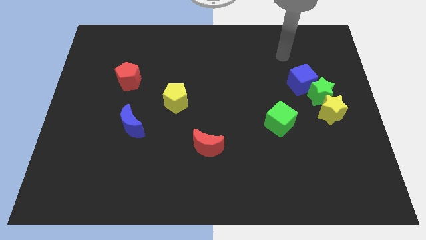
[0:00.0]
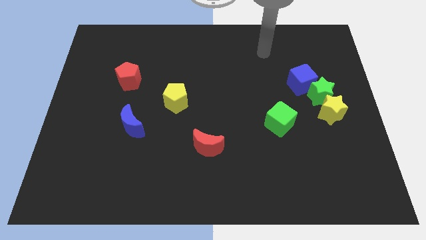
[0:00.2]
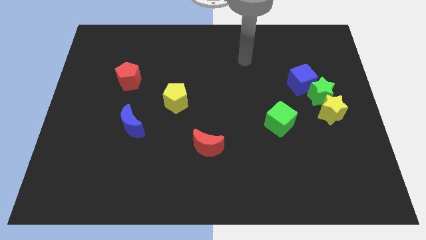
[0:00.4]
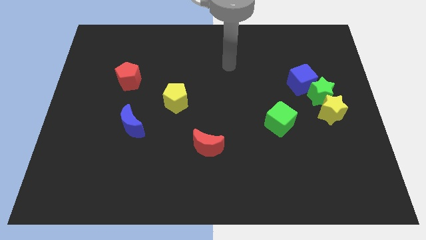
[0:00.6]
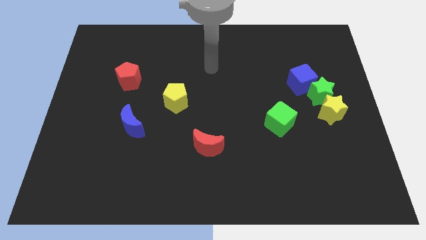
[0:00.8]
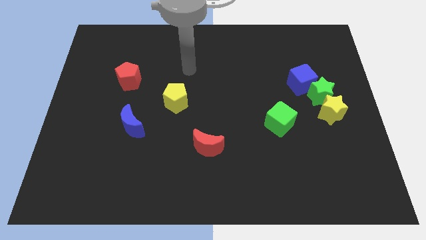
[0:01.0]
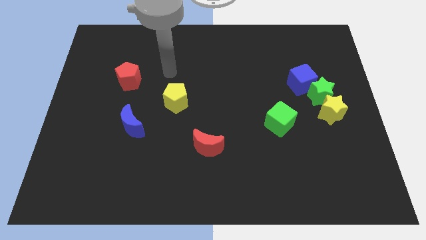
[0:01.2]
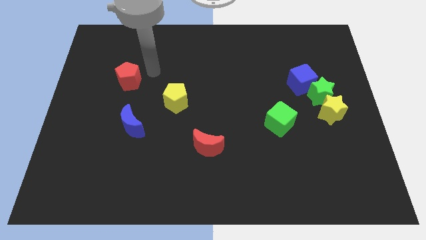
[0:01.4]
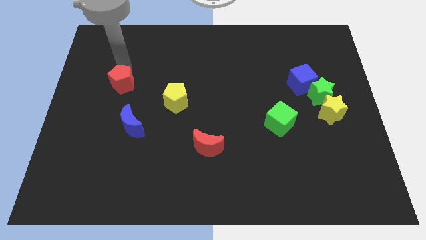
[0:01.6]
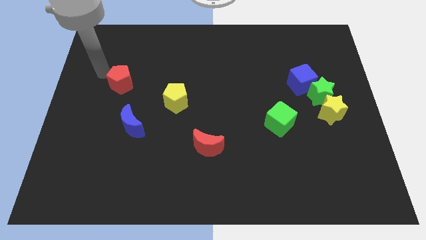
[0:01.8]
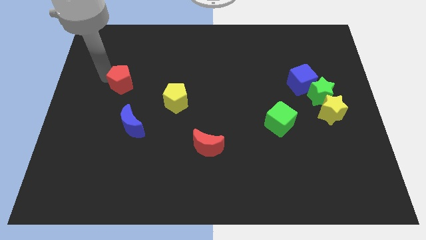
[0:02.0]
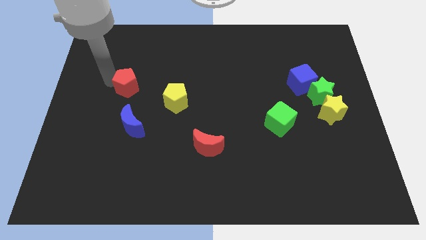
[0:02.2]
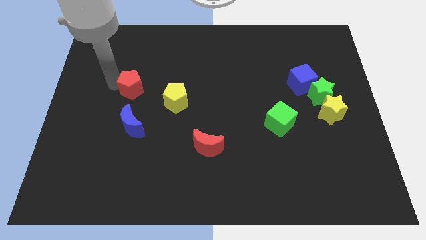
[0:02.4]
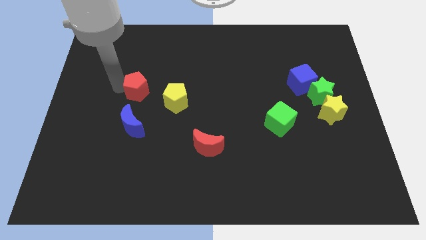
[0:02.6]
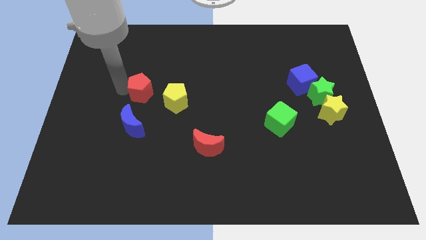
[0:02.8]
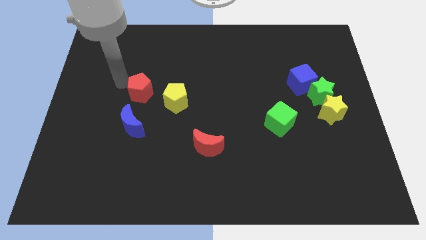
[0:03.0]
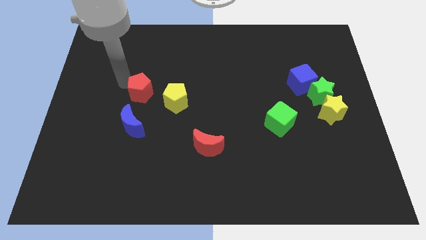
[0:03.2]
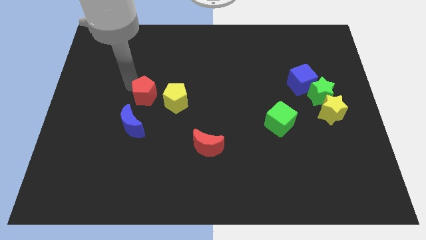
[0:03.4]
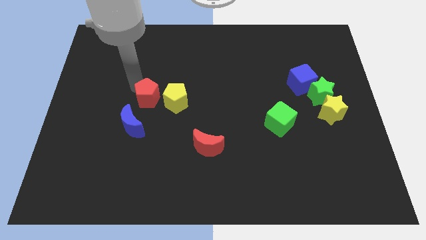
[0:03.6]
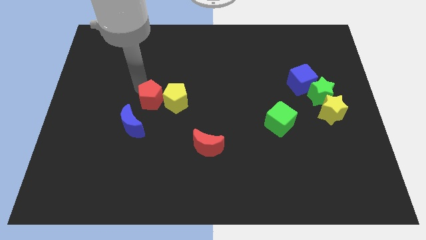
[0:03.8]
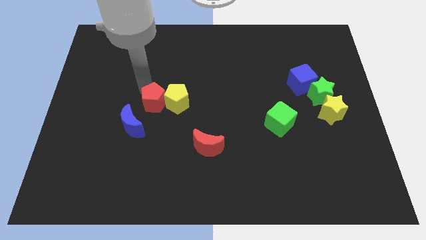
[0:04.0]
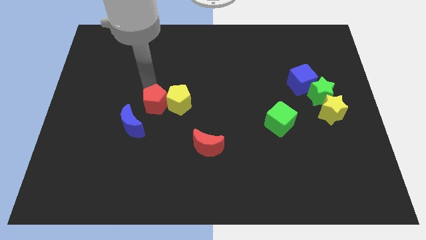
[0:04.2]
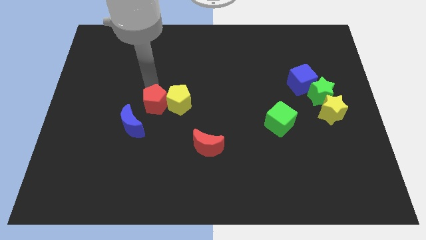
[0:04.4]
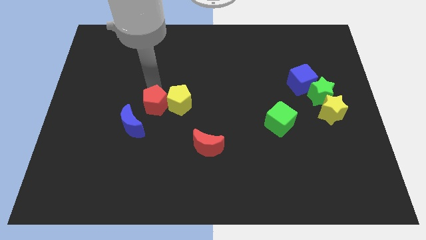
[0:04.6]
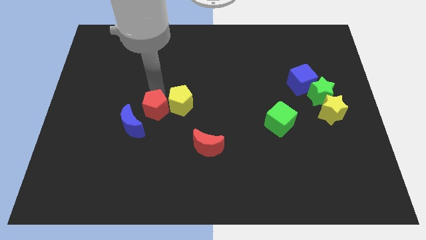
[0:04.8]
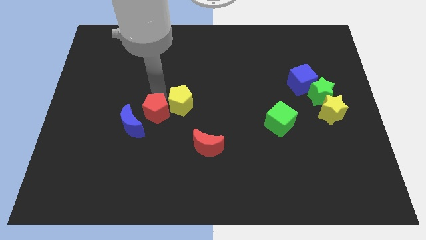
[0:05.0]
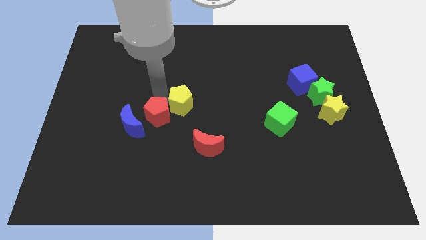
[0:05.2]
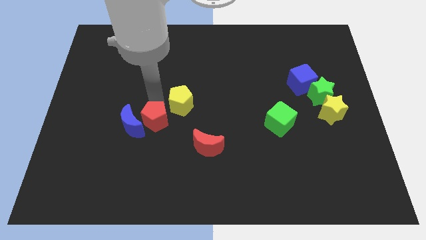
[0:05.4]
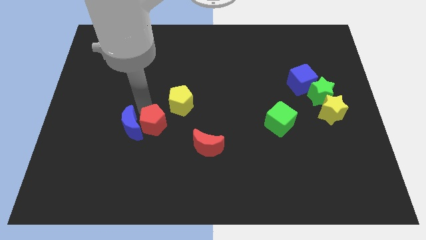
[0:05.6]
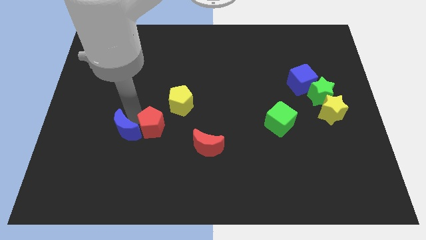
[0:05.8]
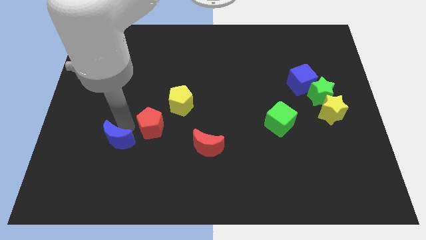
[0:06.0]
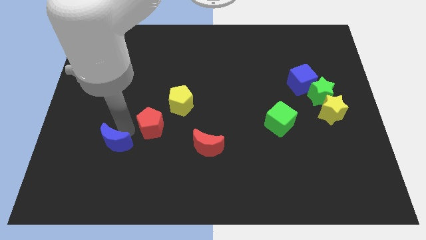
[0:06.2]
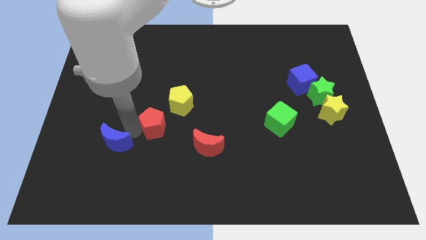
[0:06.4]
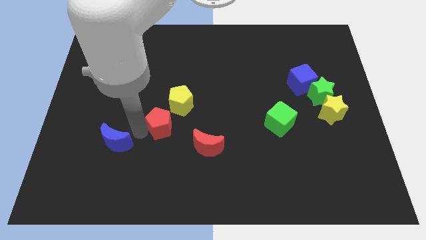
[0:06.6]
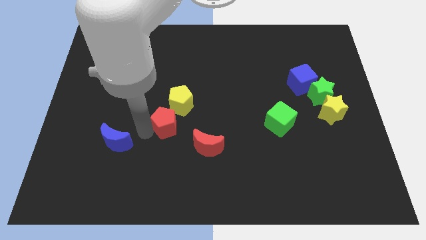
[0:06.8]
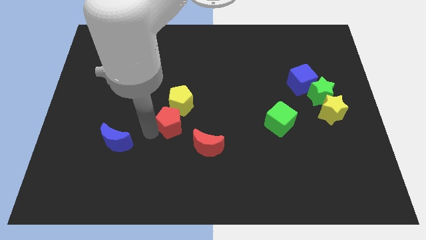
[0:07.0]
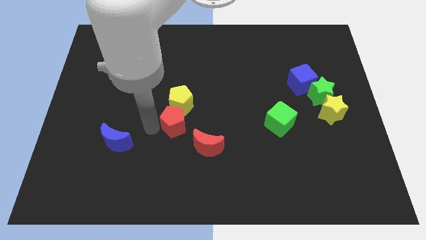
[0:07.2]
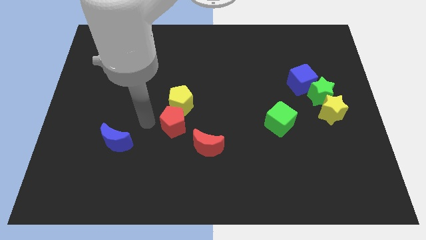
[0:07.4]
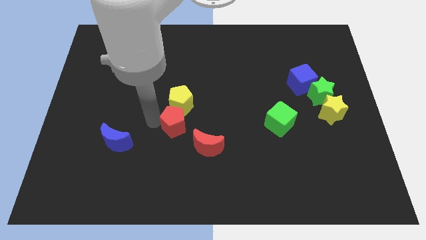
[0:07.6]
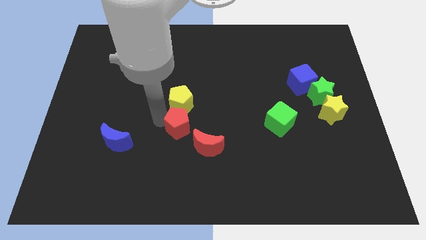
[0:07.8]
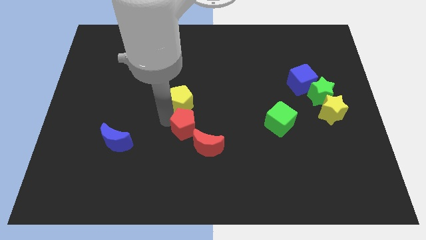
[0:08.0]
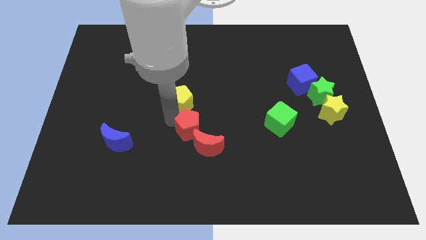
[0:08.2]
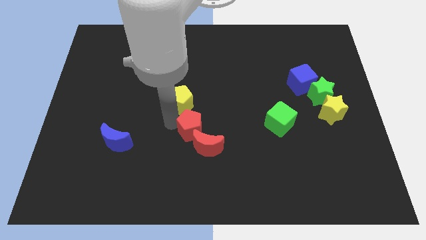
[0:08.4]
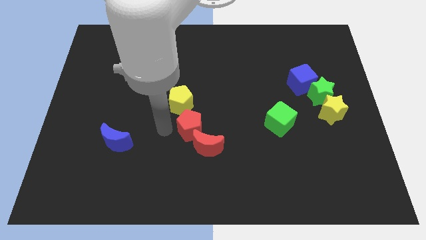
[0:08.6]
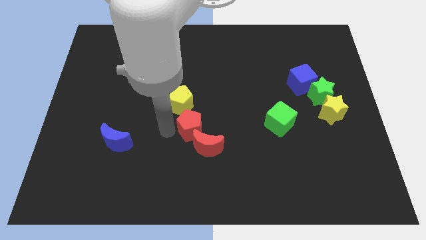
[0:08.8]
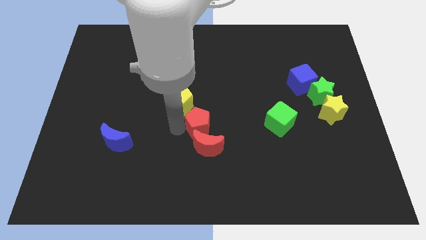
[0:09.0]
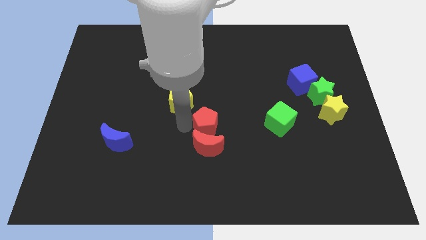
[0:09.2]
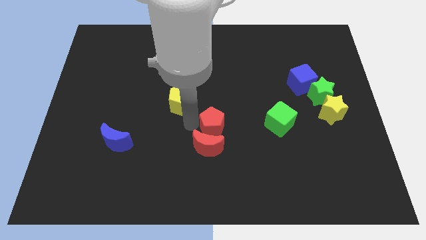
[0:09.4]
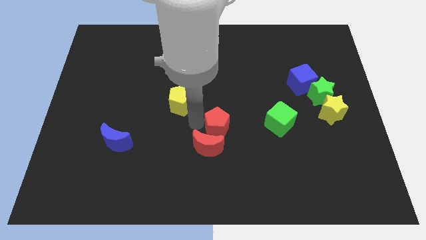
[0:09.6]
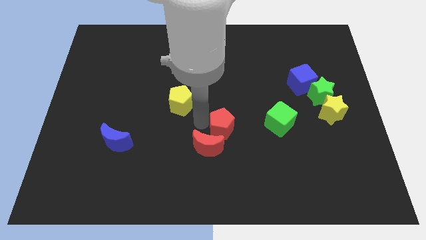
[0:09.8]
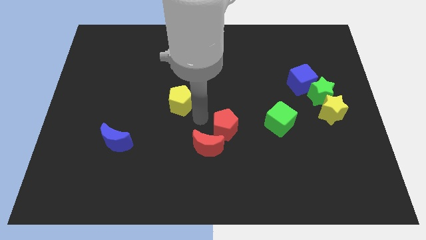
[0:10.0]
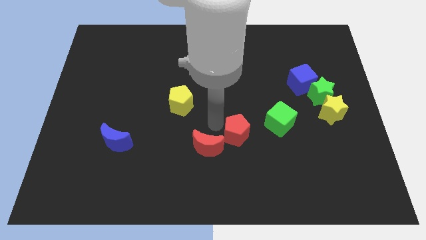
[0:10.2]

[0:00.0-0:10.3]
slide the red pentagon diagonally down and to the left of the green cube

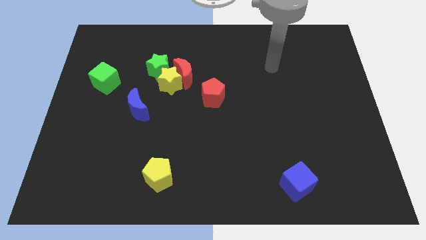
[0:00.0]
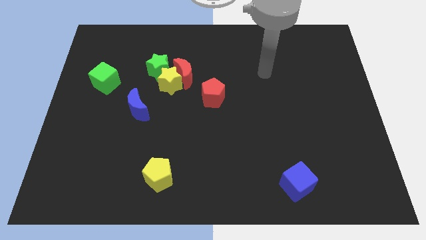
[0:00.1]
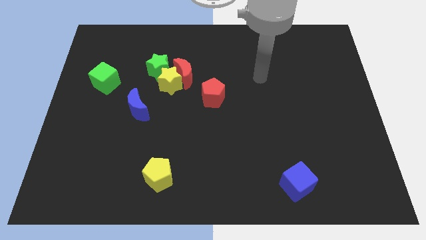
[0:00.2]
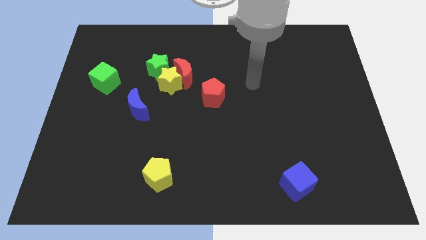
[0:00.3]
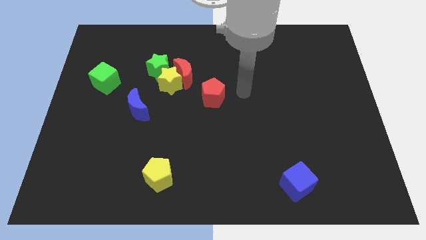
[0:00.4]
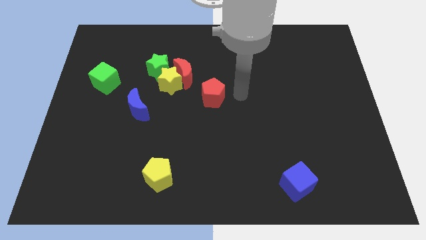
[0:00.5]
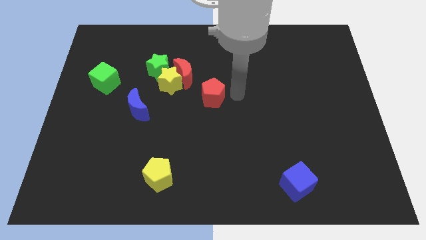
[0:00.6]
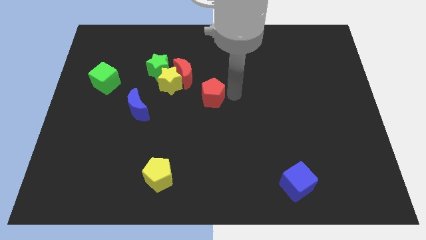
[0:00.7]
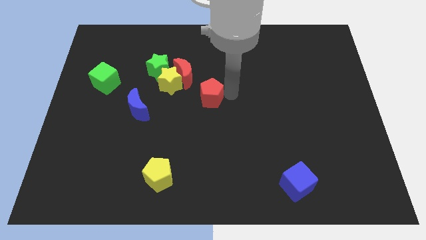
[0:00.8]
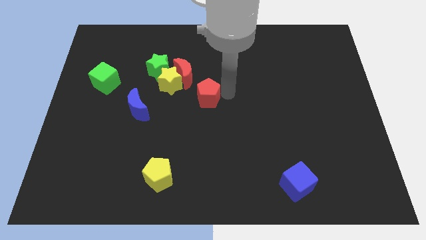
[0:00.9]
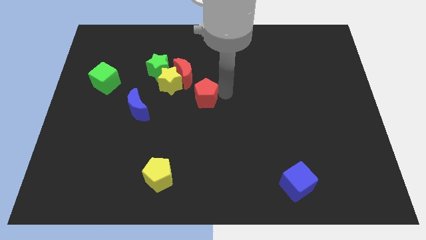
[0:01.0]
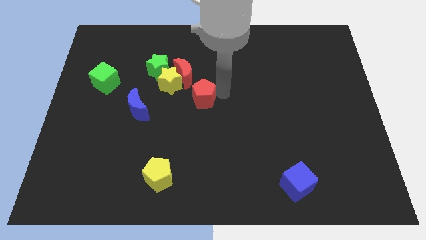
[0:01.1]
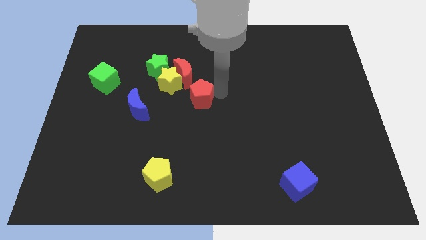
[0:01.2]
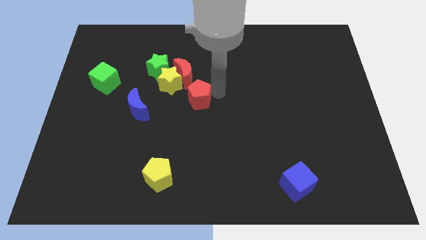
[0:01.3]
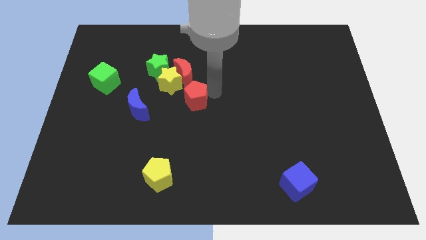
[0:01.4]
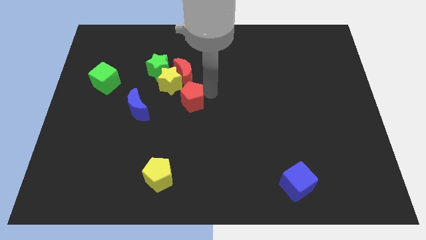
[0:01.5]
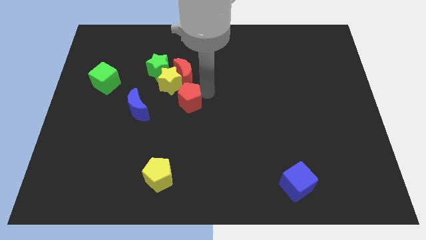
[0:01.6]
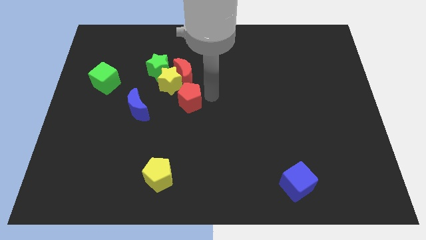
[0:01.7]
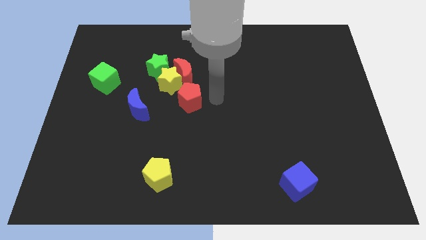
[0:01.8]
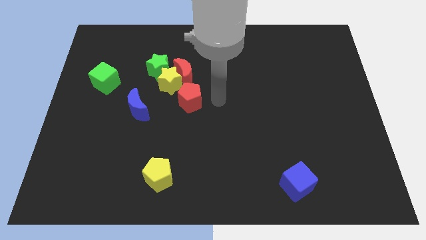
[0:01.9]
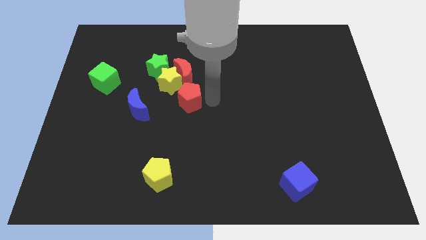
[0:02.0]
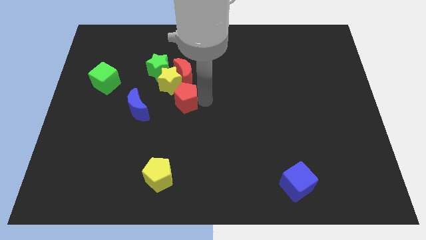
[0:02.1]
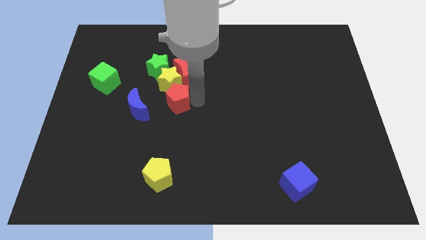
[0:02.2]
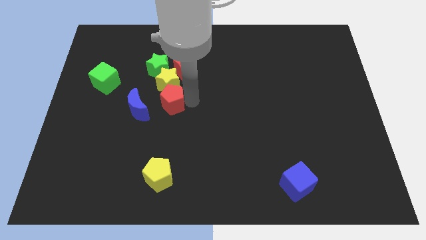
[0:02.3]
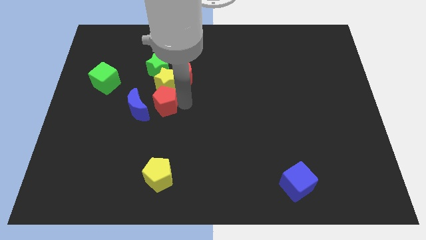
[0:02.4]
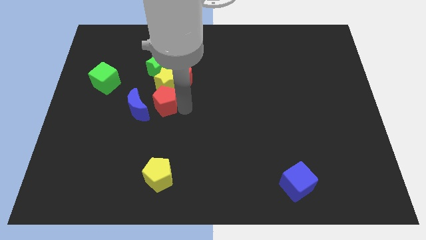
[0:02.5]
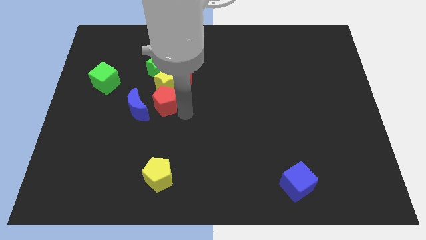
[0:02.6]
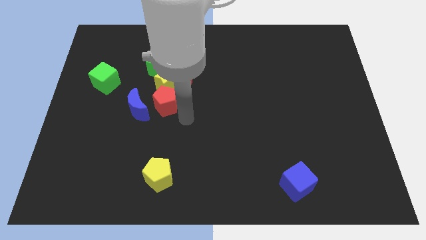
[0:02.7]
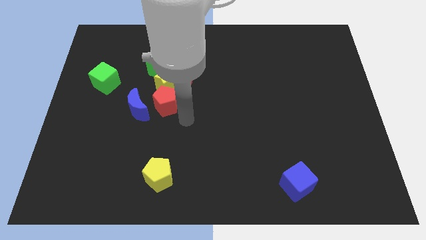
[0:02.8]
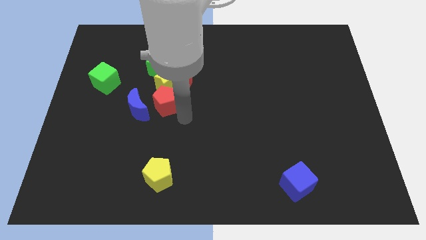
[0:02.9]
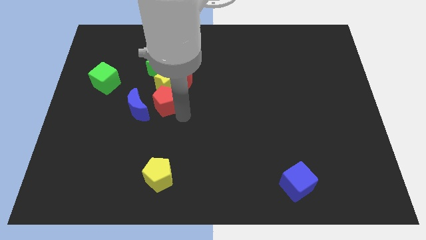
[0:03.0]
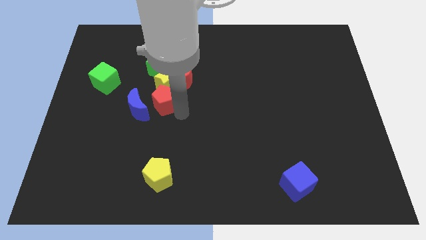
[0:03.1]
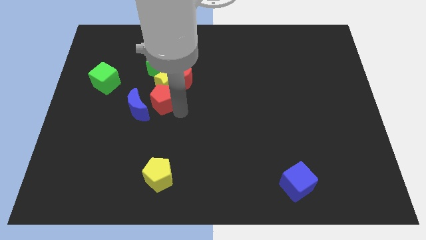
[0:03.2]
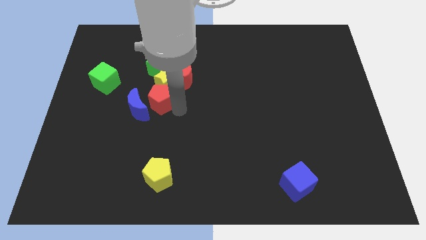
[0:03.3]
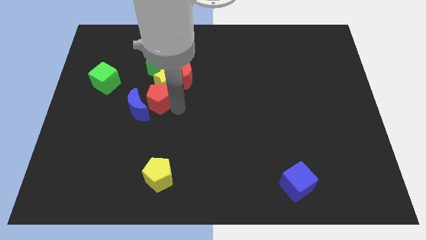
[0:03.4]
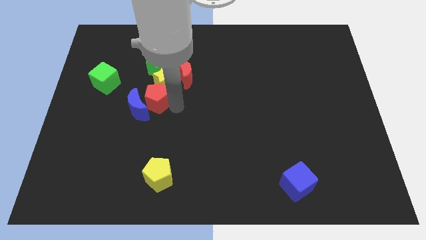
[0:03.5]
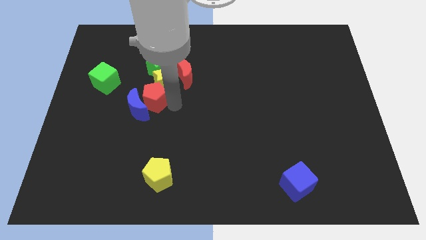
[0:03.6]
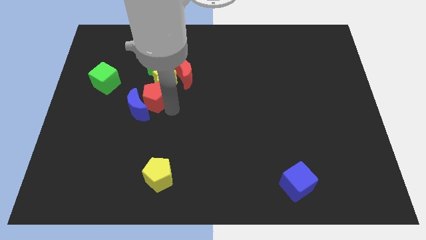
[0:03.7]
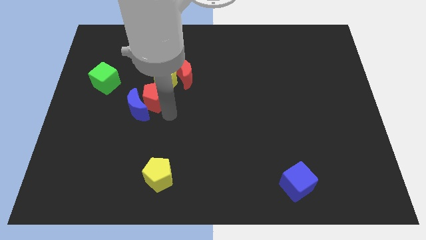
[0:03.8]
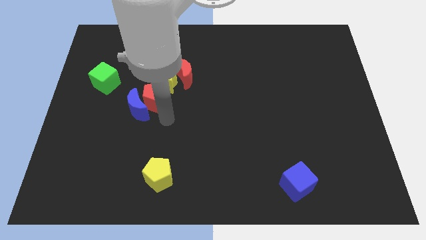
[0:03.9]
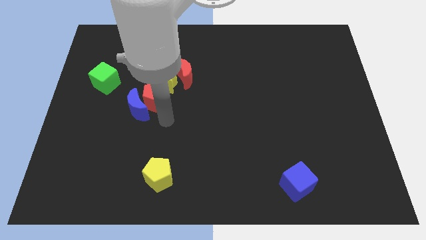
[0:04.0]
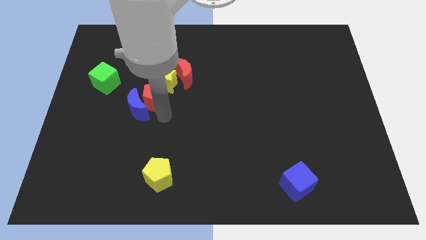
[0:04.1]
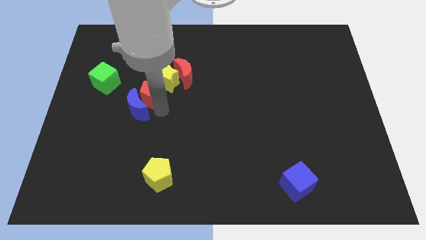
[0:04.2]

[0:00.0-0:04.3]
put the red pentagon to the right of the green cube
